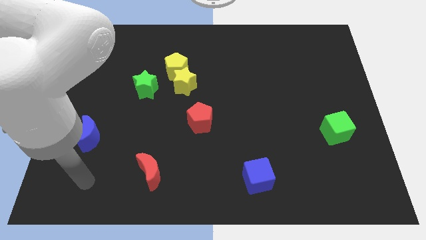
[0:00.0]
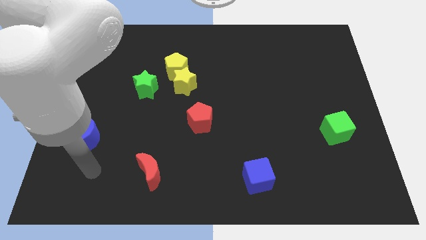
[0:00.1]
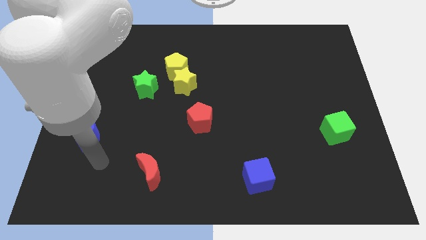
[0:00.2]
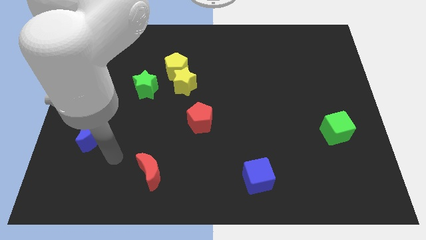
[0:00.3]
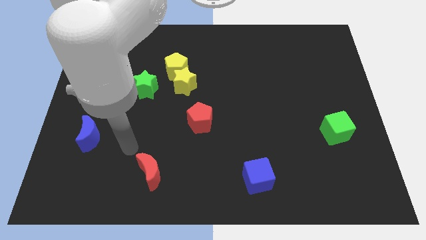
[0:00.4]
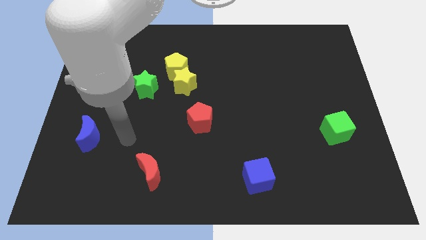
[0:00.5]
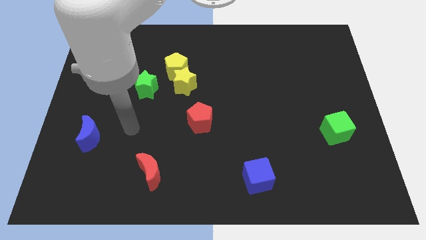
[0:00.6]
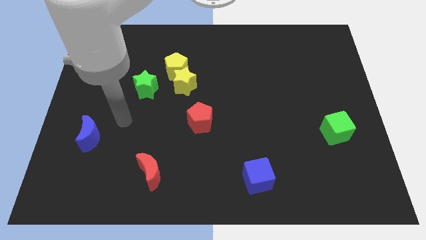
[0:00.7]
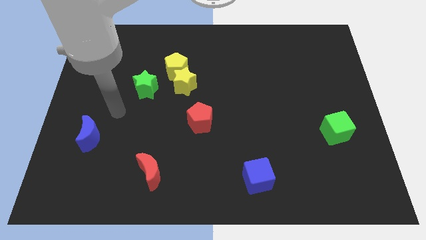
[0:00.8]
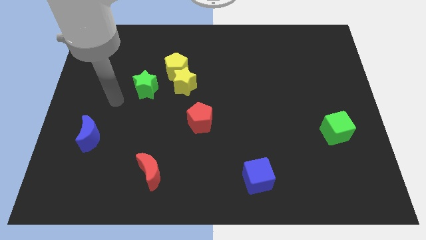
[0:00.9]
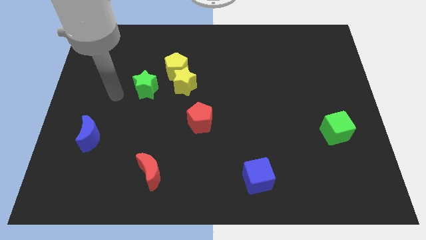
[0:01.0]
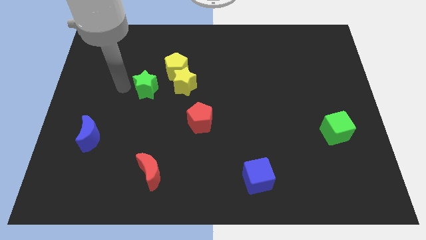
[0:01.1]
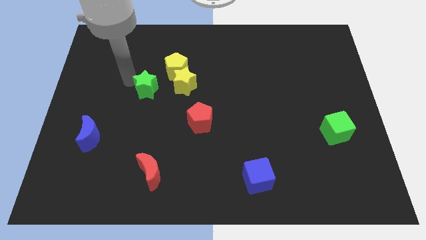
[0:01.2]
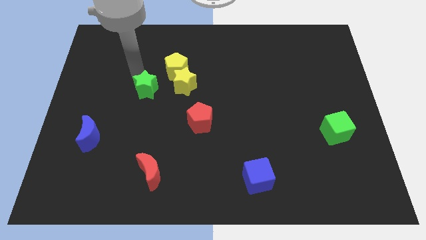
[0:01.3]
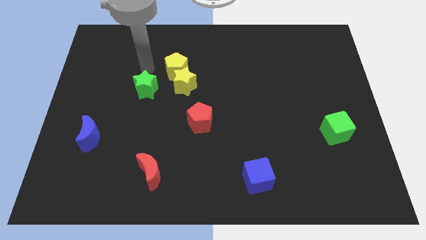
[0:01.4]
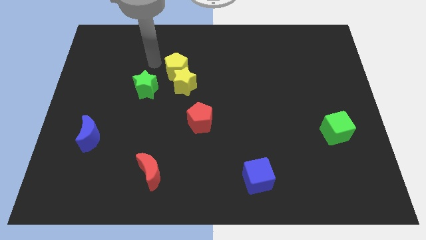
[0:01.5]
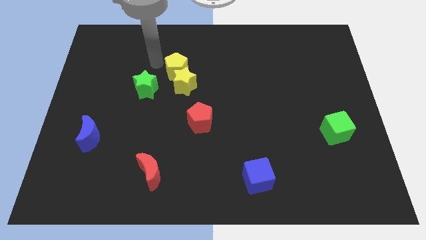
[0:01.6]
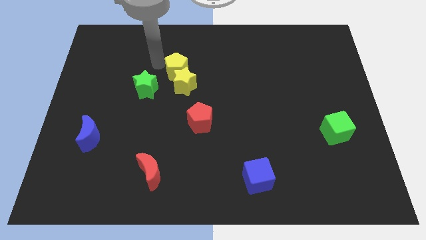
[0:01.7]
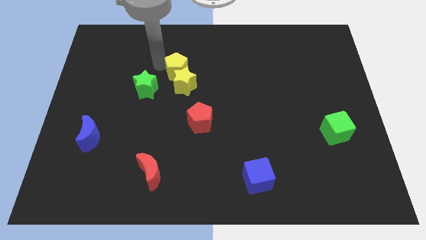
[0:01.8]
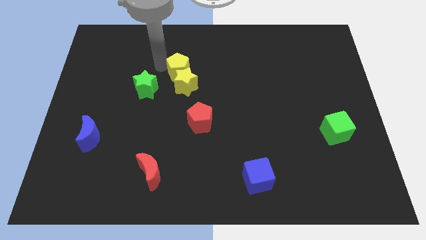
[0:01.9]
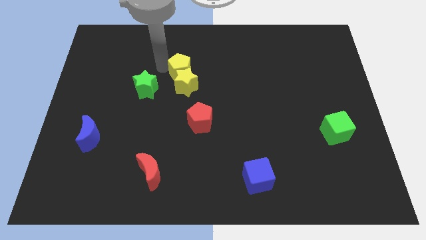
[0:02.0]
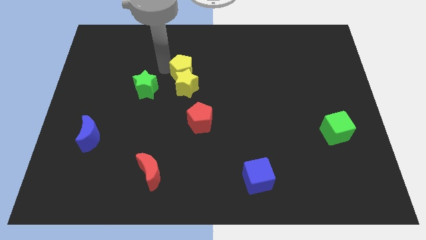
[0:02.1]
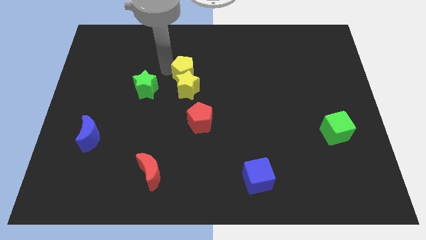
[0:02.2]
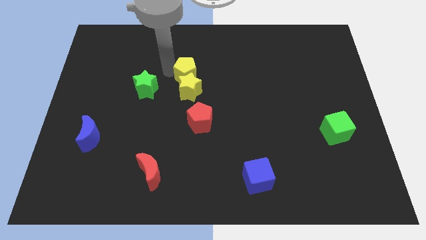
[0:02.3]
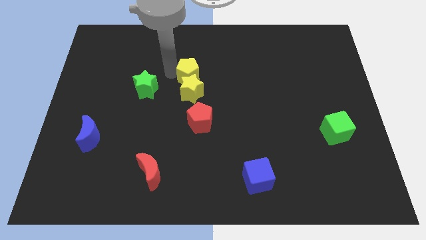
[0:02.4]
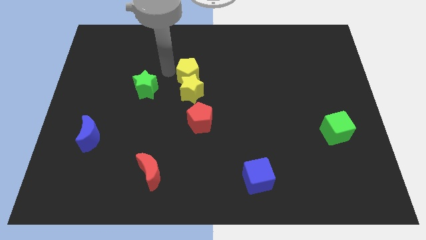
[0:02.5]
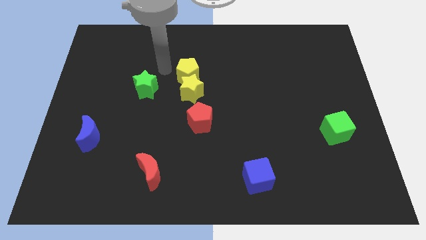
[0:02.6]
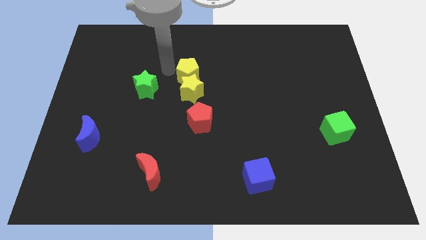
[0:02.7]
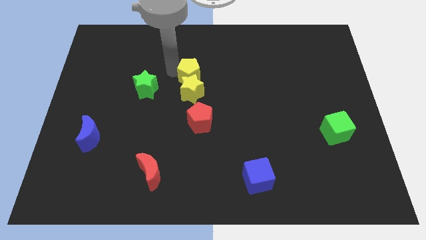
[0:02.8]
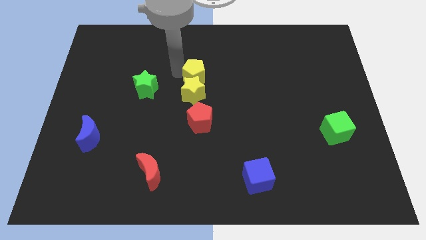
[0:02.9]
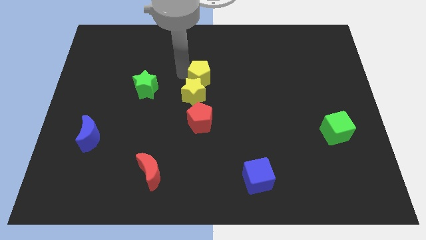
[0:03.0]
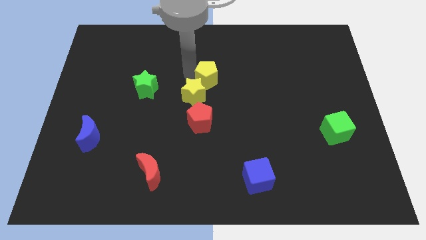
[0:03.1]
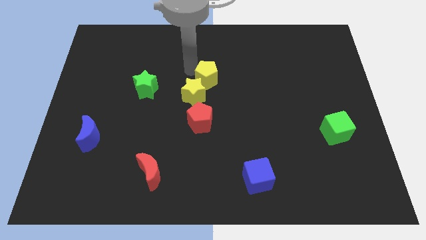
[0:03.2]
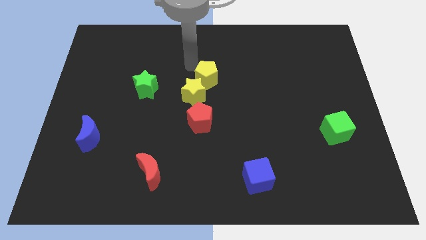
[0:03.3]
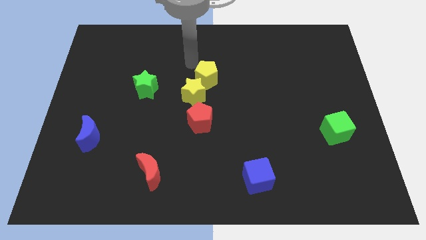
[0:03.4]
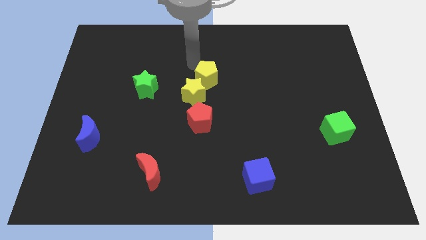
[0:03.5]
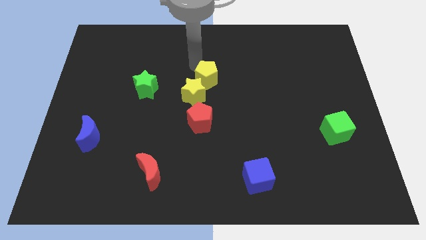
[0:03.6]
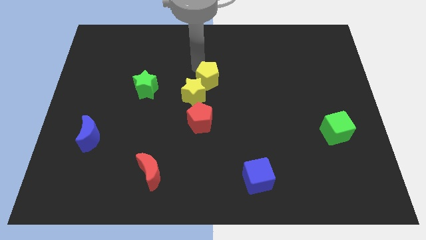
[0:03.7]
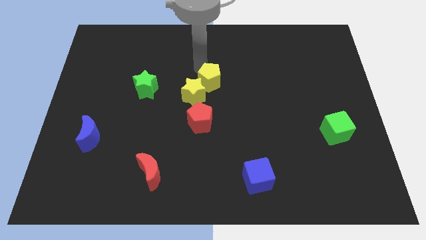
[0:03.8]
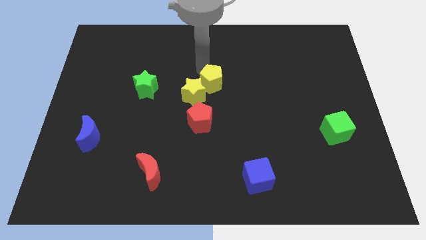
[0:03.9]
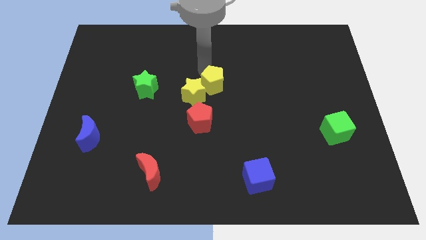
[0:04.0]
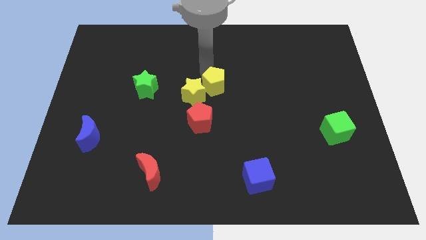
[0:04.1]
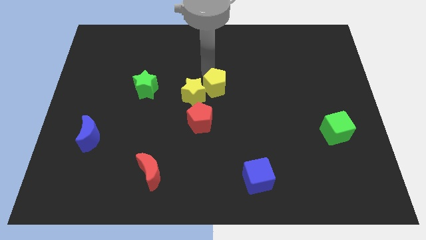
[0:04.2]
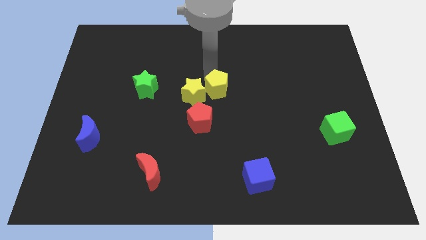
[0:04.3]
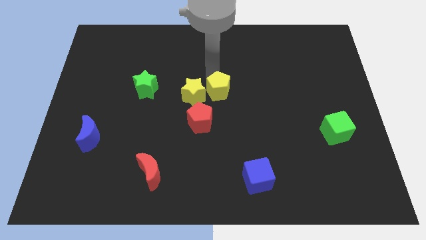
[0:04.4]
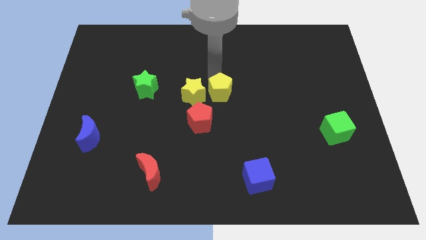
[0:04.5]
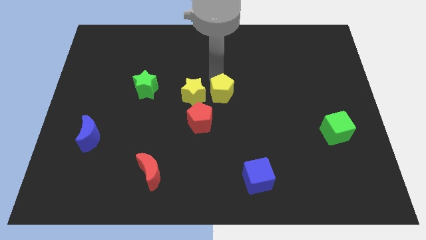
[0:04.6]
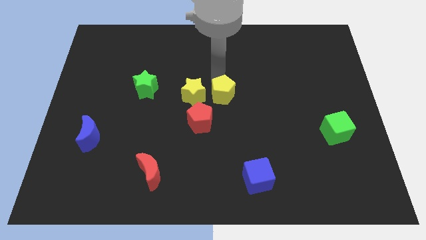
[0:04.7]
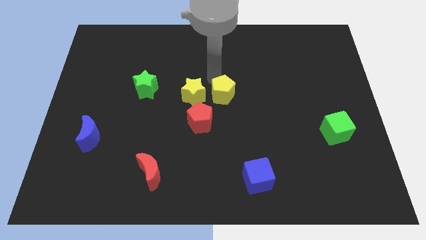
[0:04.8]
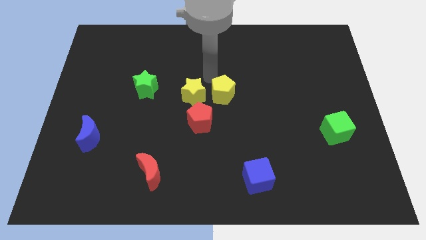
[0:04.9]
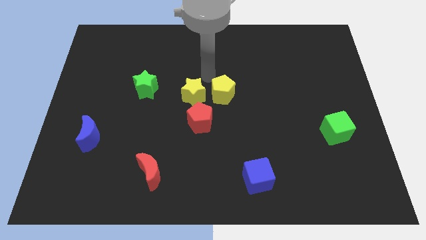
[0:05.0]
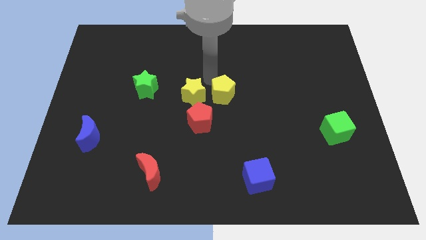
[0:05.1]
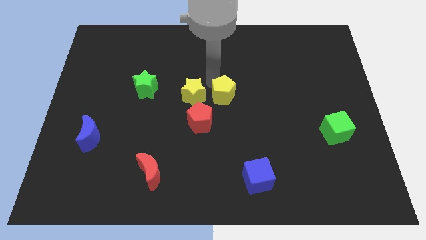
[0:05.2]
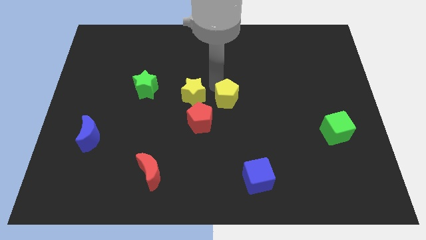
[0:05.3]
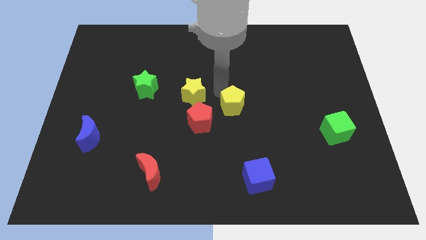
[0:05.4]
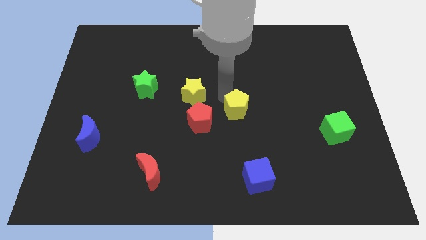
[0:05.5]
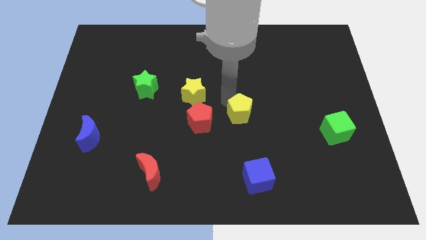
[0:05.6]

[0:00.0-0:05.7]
slide the yellow pentagon down and then right

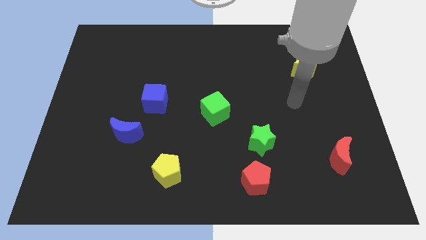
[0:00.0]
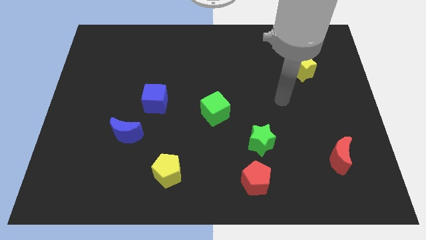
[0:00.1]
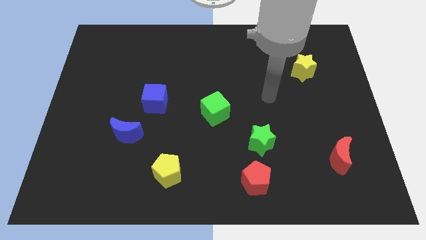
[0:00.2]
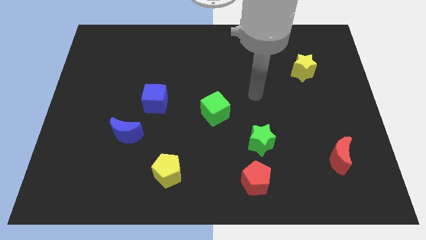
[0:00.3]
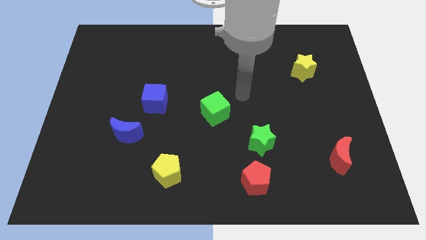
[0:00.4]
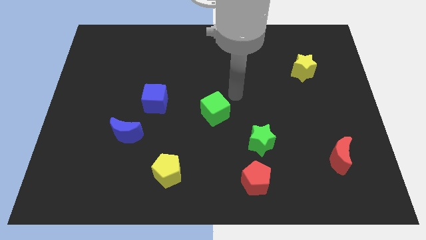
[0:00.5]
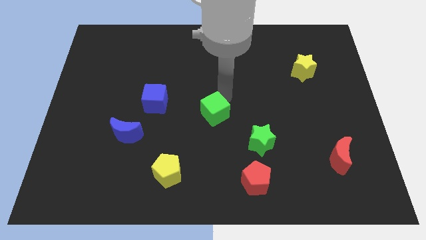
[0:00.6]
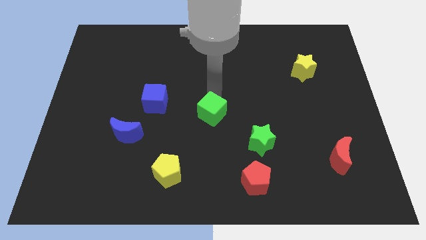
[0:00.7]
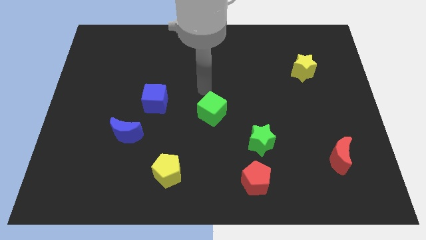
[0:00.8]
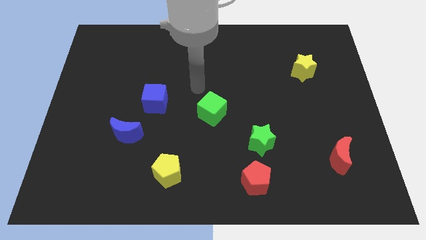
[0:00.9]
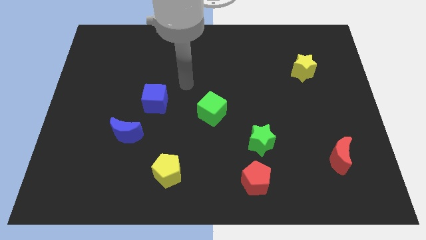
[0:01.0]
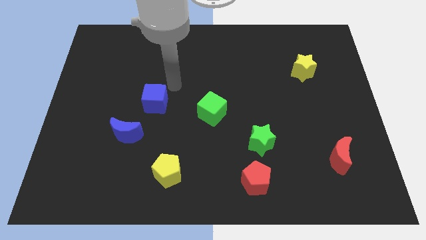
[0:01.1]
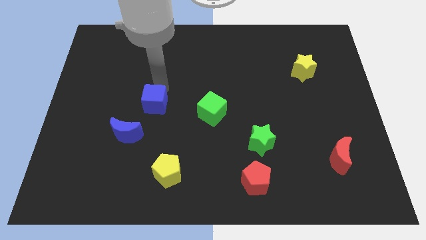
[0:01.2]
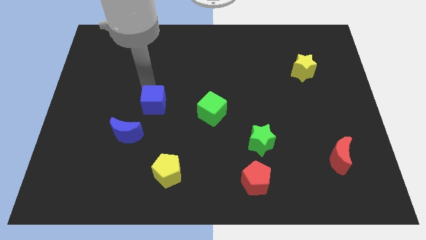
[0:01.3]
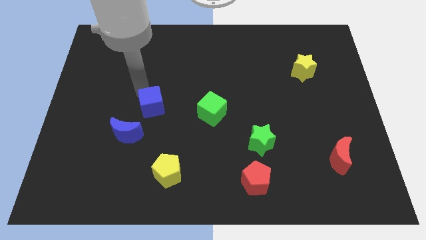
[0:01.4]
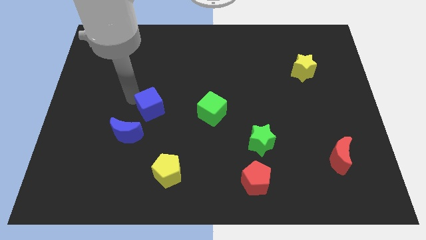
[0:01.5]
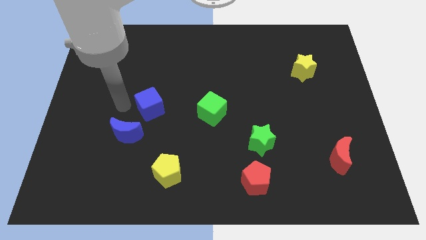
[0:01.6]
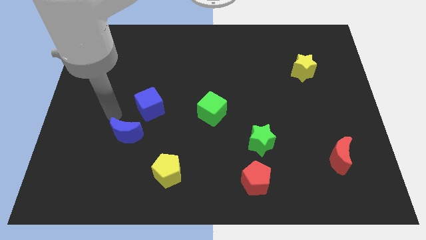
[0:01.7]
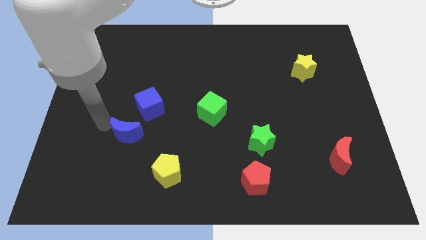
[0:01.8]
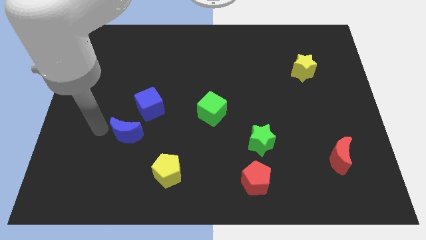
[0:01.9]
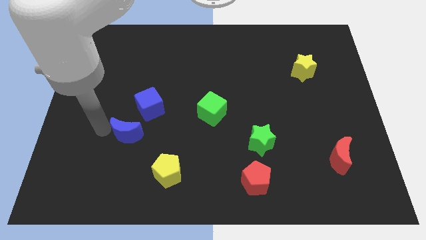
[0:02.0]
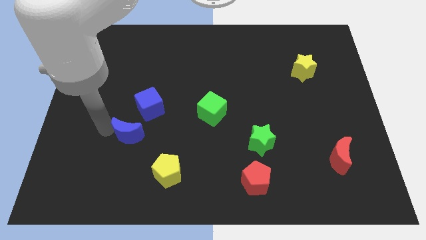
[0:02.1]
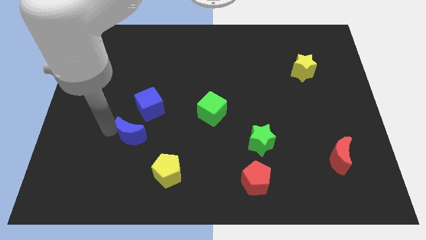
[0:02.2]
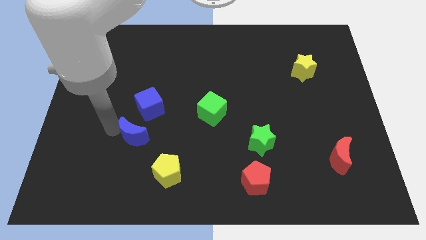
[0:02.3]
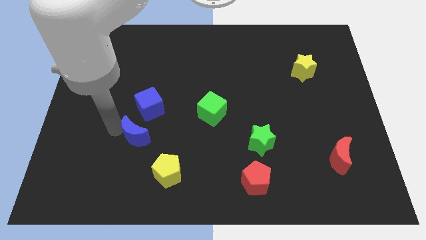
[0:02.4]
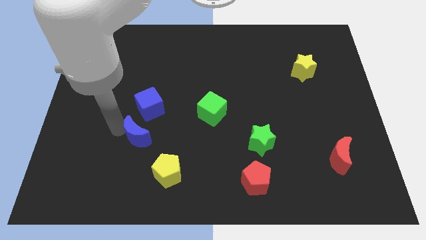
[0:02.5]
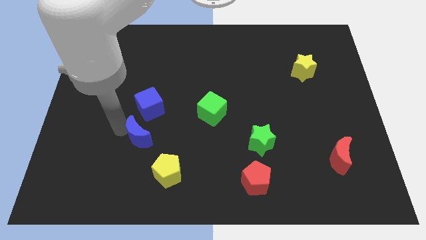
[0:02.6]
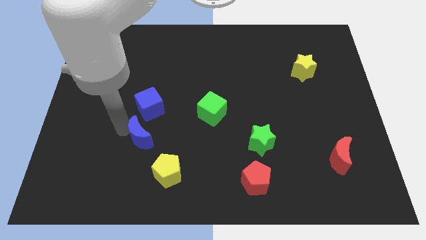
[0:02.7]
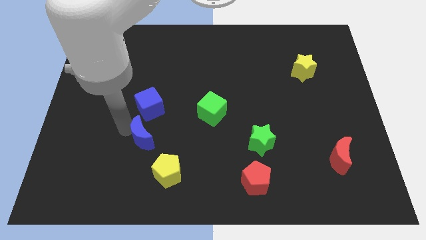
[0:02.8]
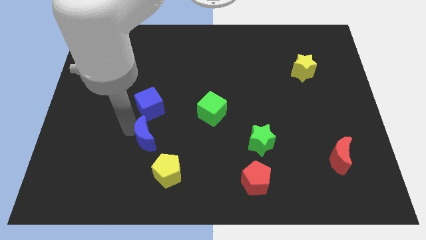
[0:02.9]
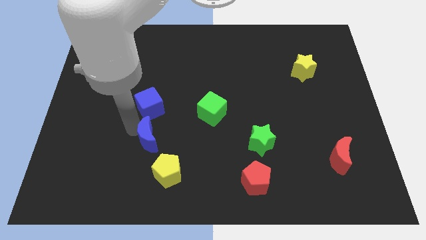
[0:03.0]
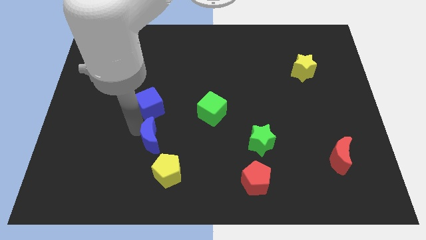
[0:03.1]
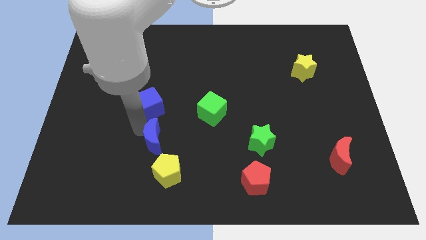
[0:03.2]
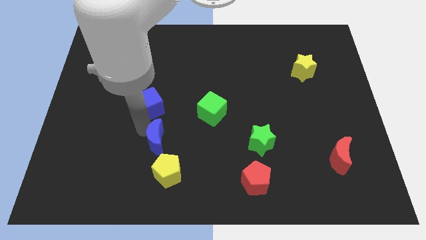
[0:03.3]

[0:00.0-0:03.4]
push the blue moon somewhat to the right
